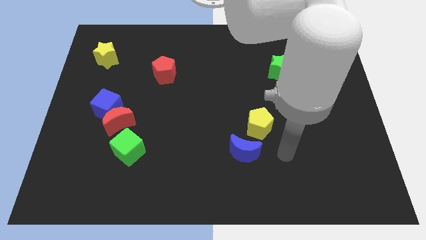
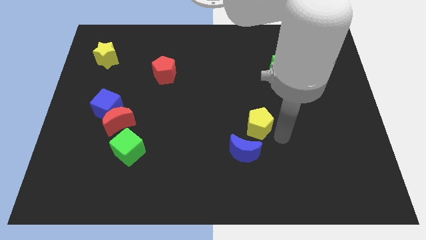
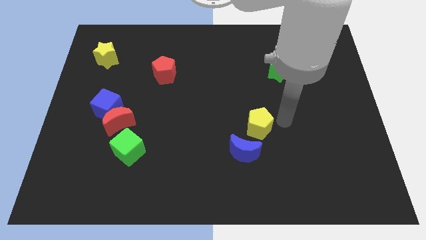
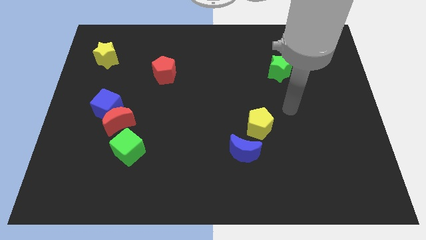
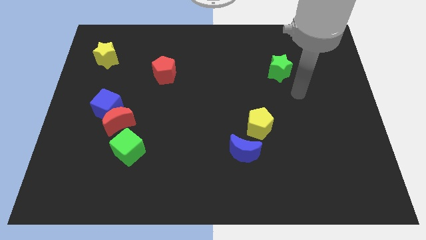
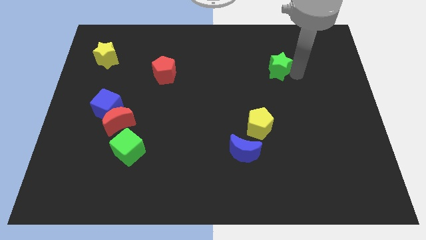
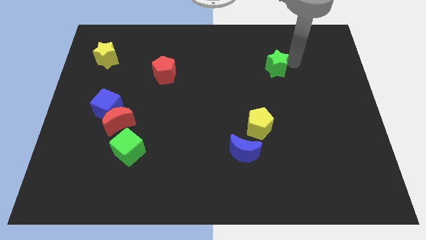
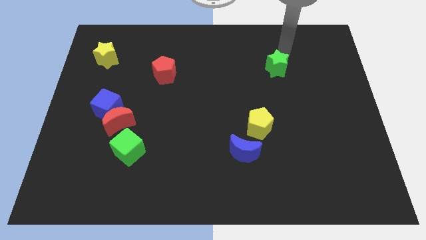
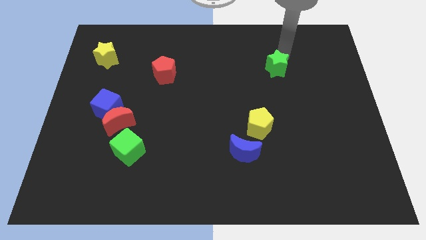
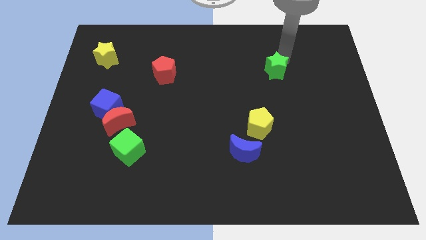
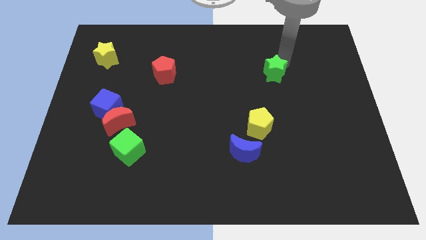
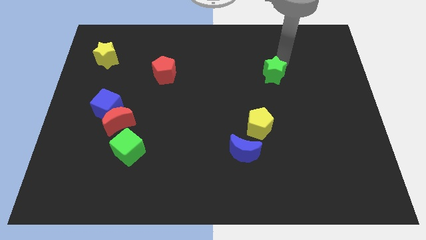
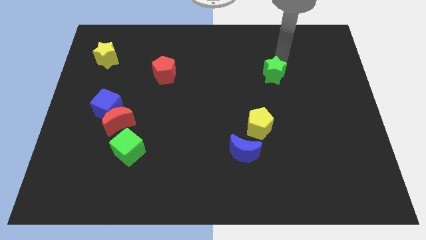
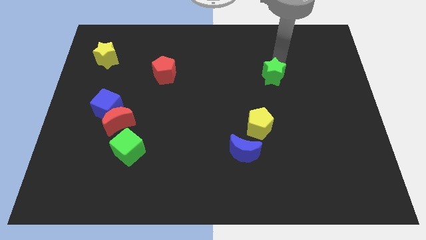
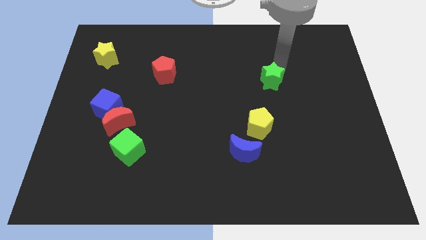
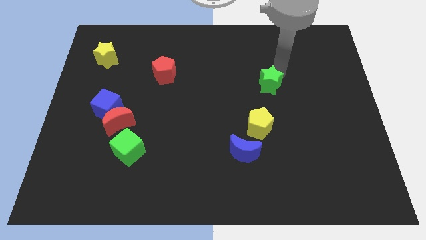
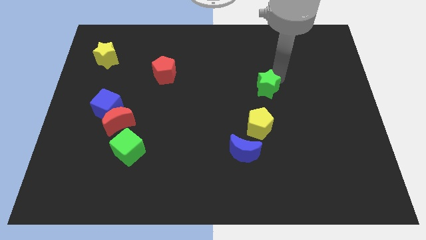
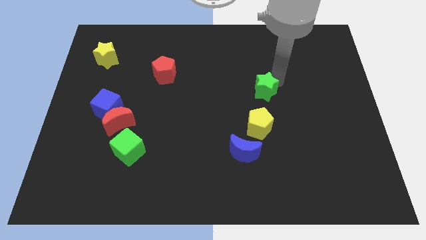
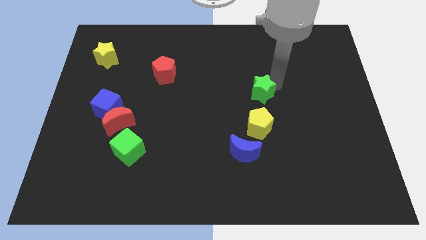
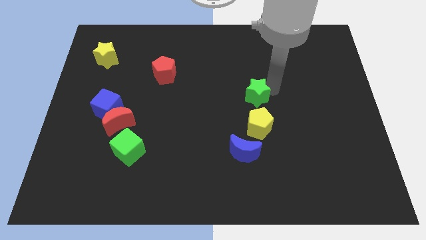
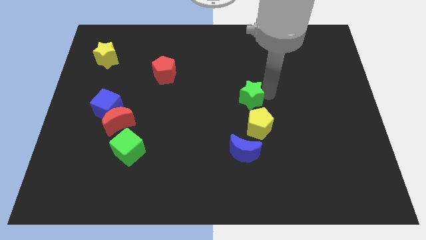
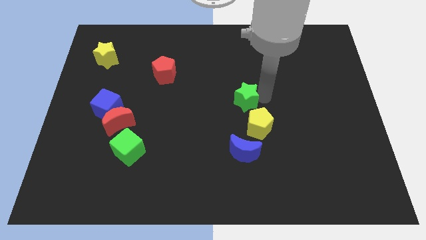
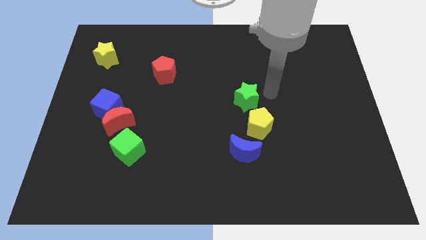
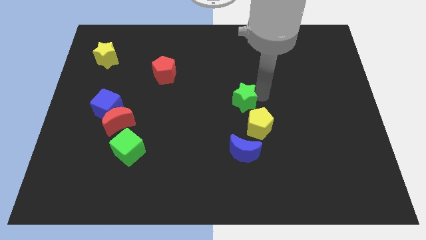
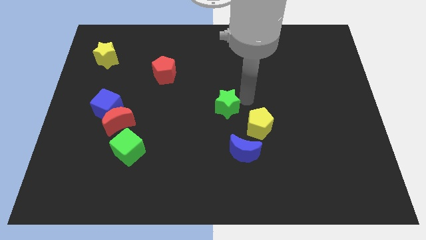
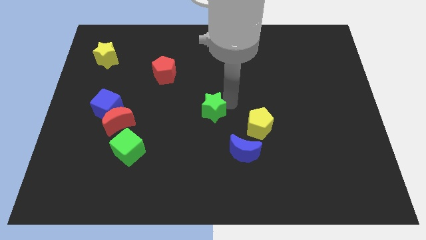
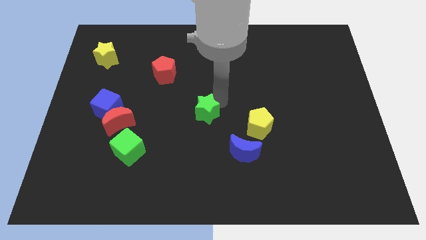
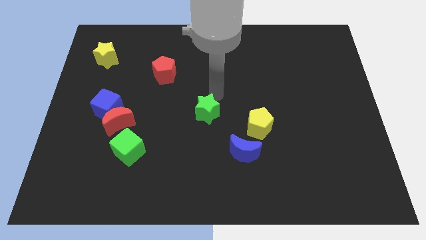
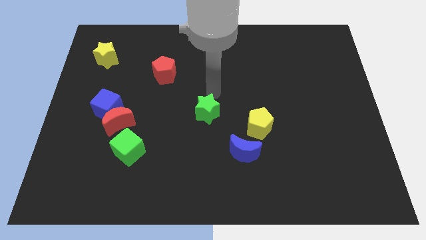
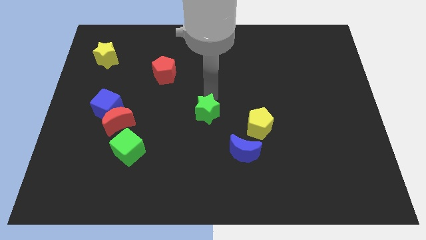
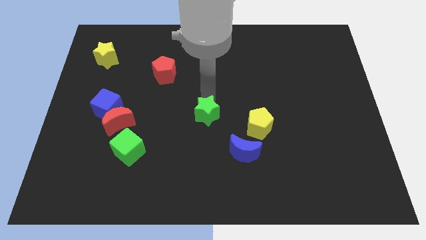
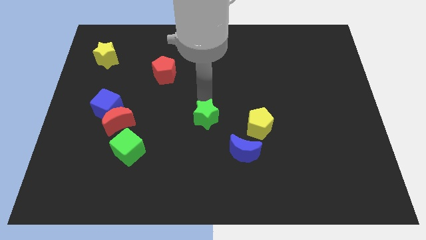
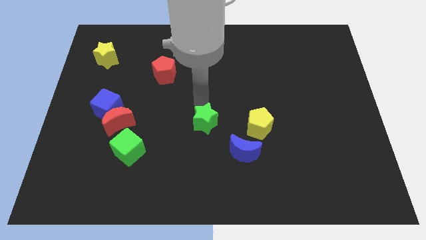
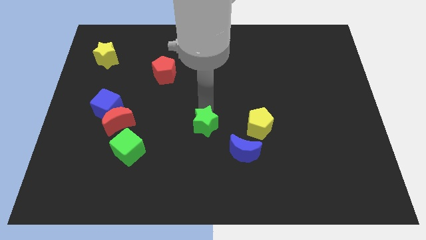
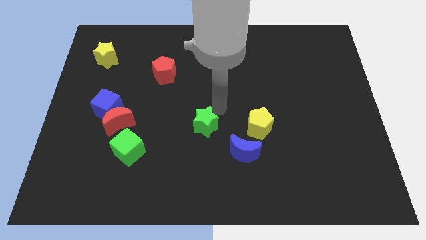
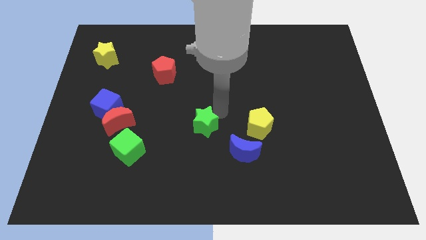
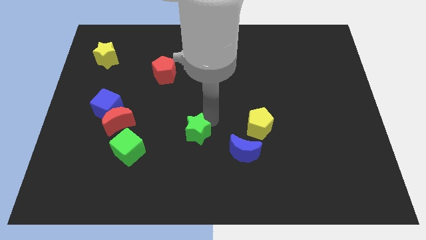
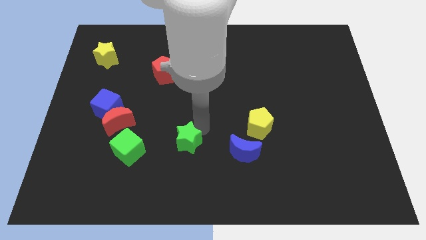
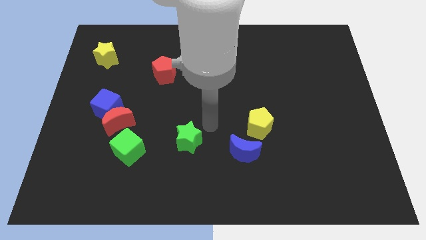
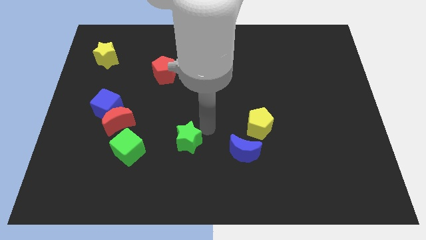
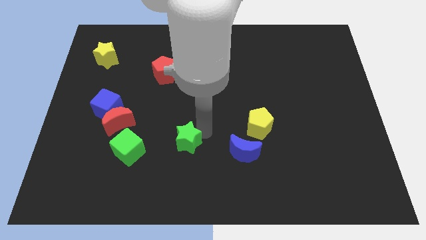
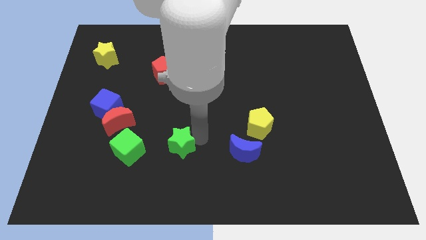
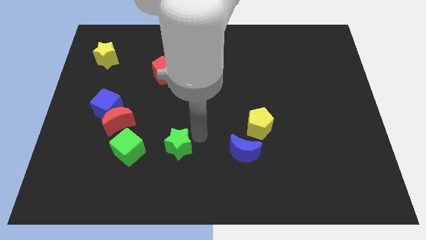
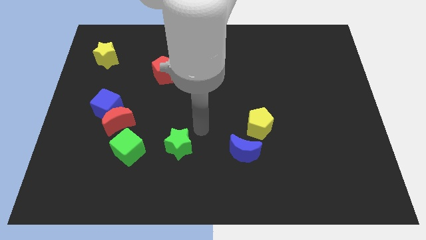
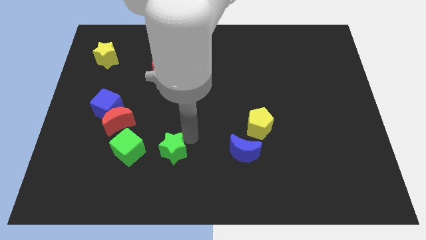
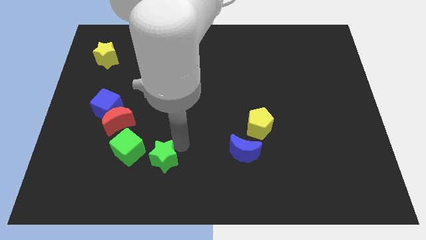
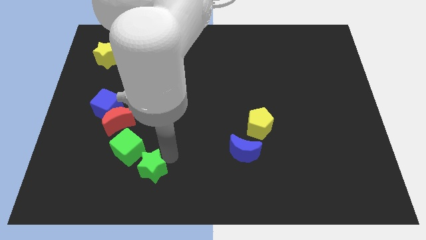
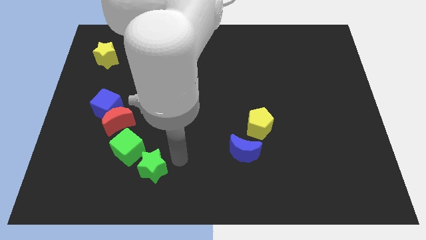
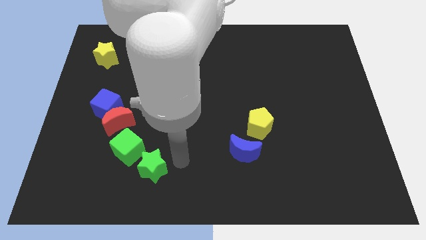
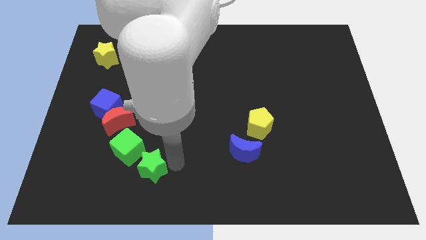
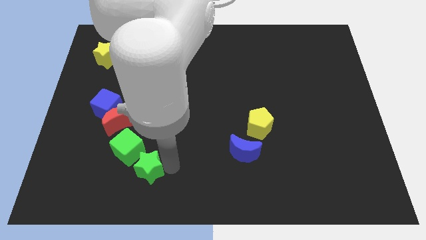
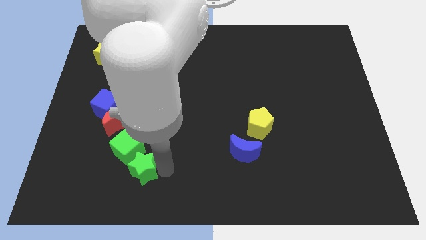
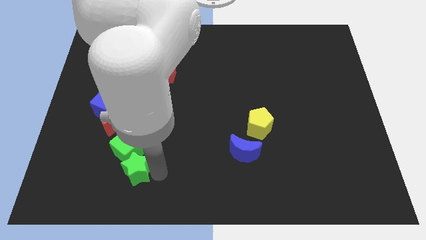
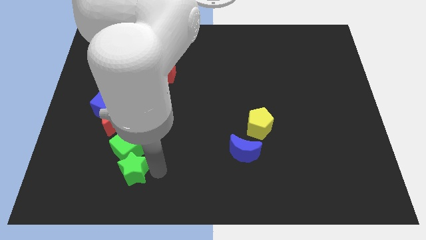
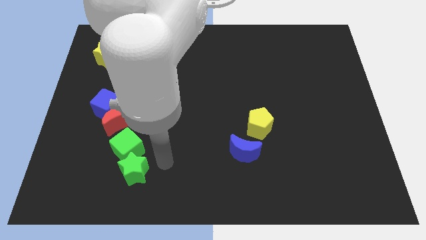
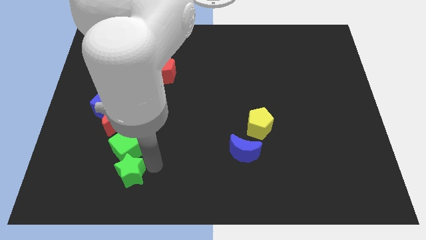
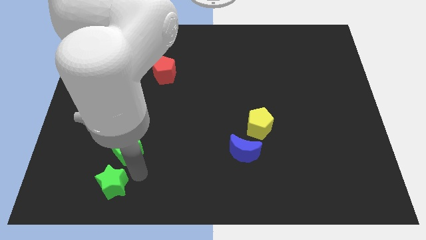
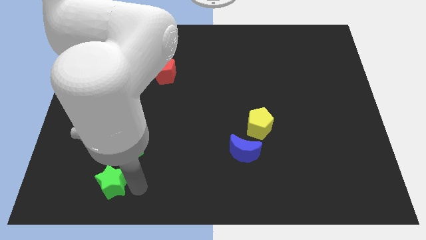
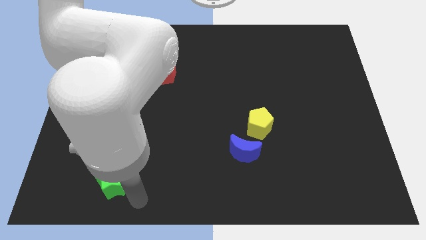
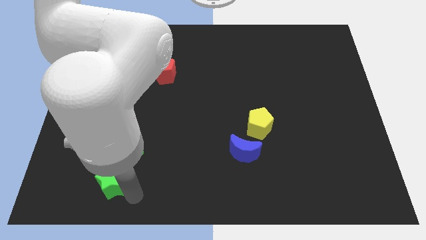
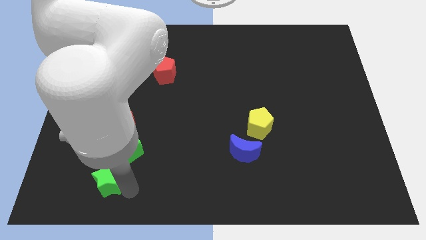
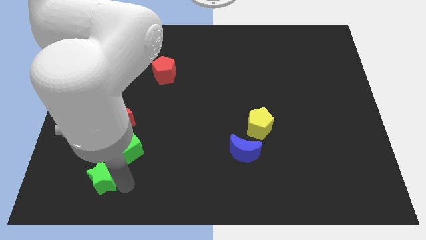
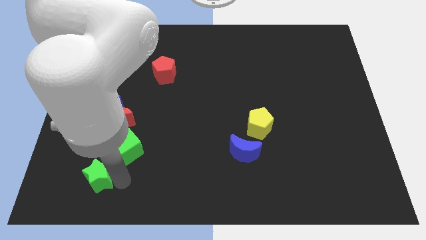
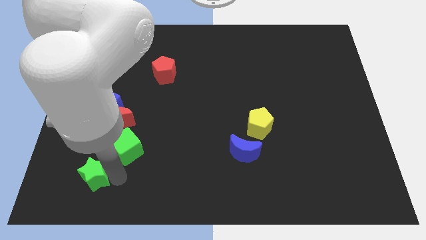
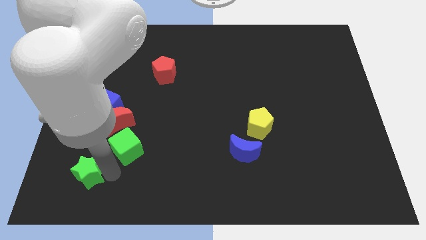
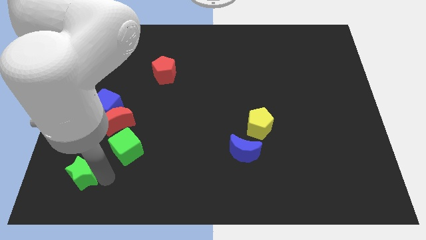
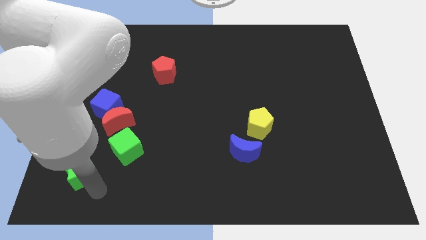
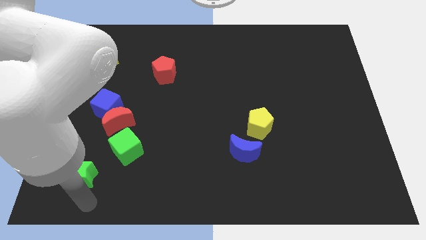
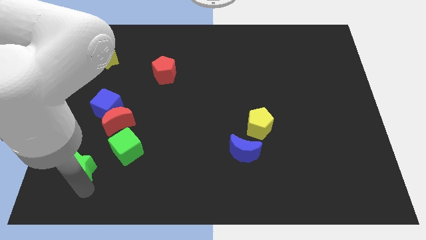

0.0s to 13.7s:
push the green star just left of the green cube

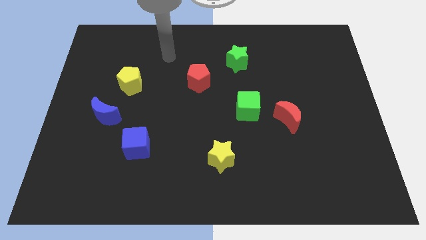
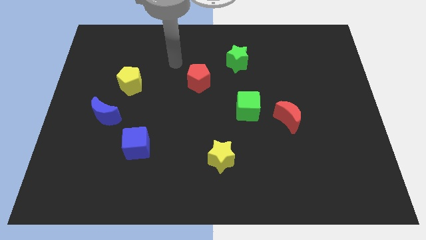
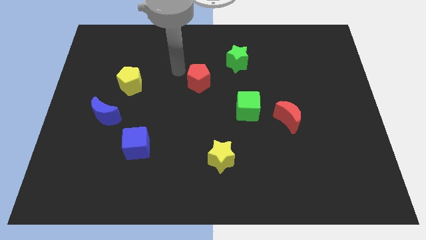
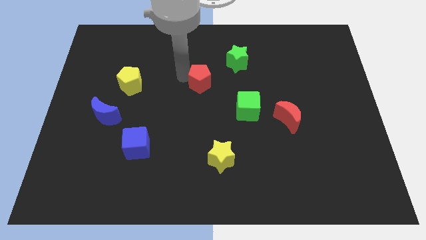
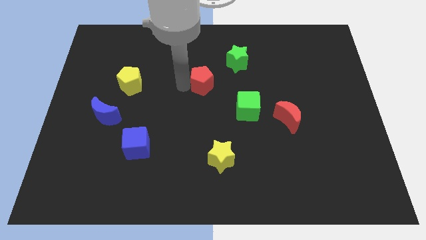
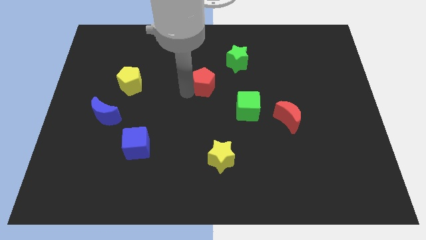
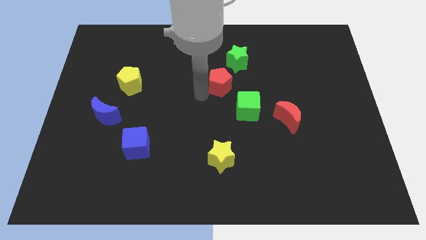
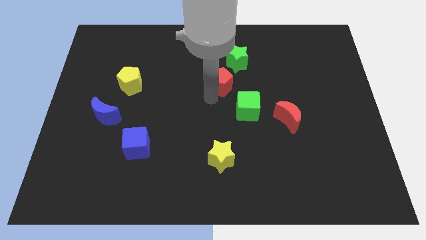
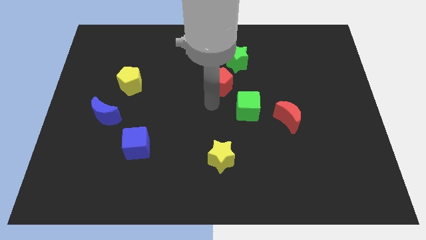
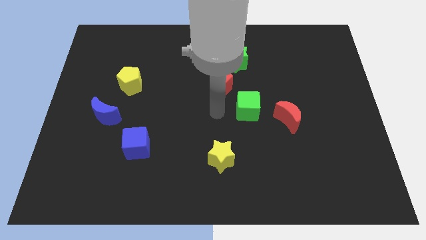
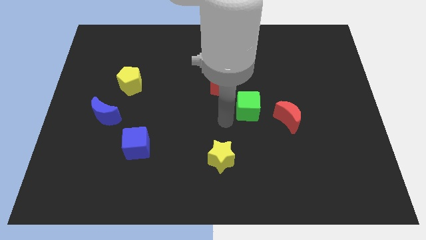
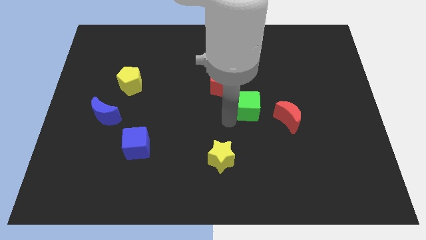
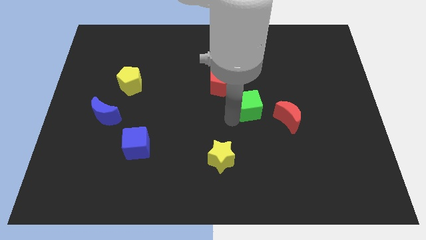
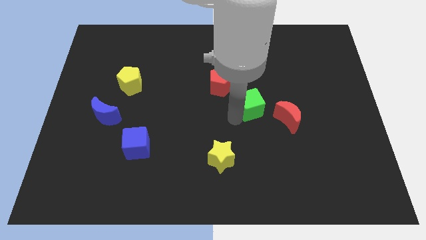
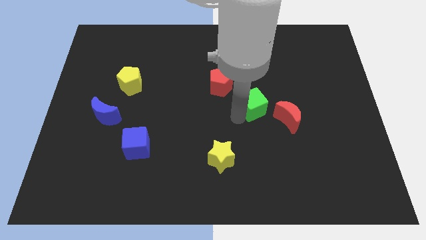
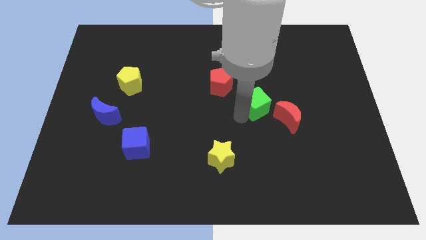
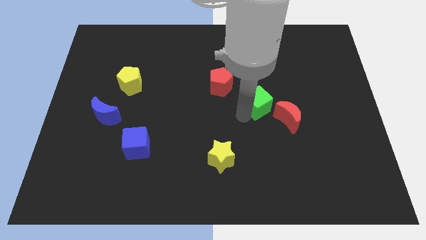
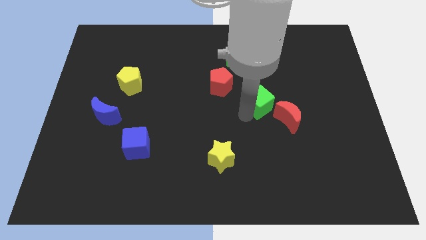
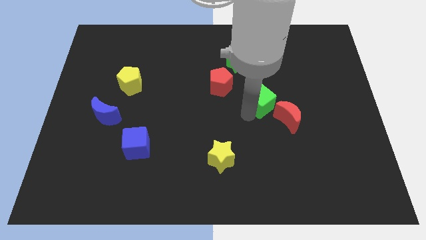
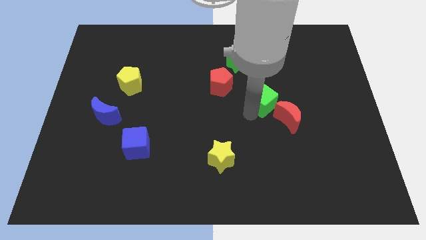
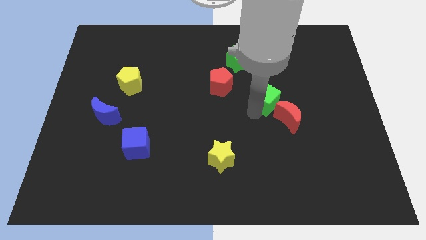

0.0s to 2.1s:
slide the green cube to the top of the red moon
